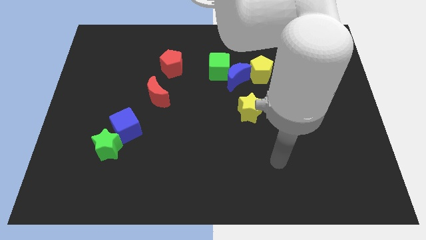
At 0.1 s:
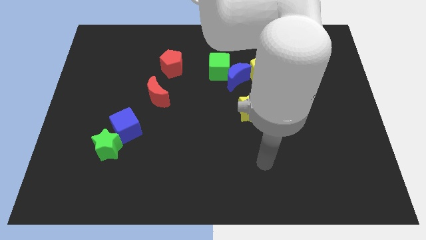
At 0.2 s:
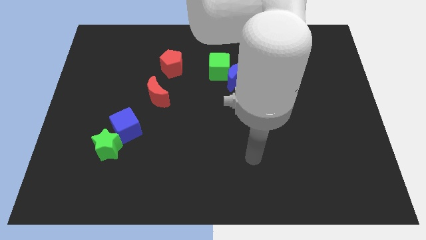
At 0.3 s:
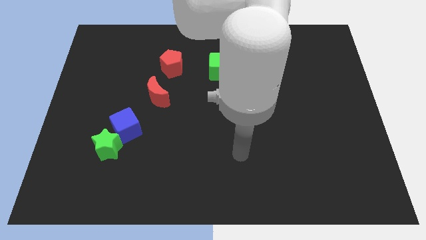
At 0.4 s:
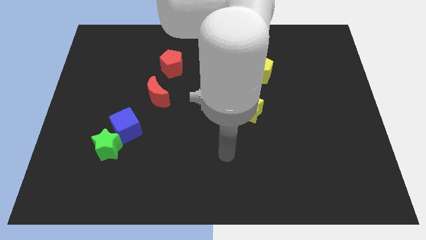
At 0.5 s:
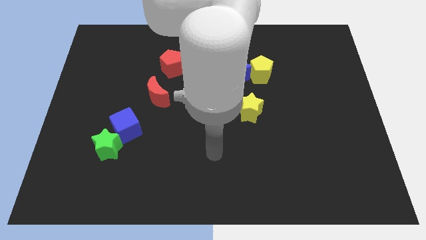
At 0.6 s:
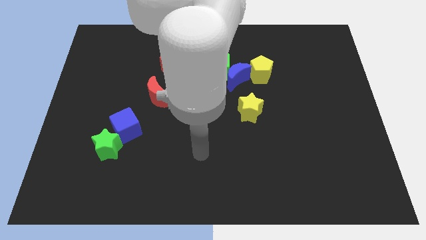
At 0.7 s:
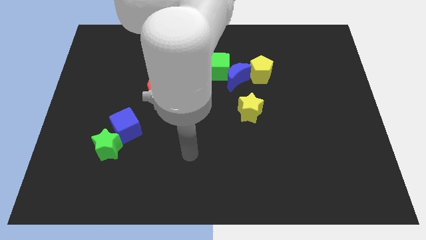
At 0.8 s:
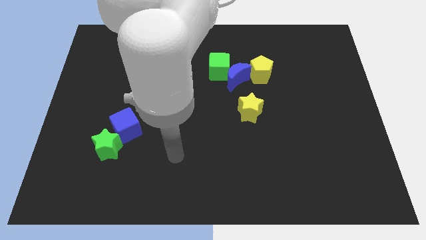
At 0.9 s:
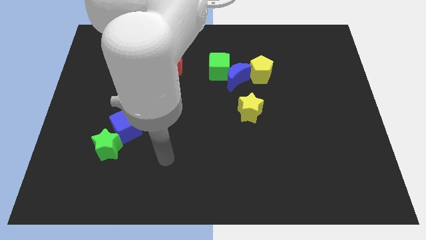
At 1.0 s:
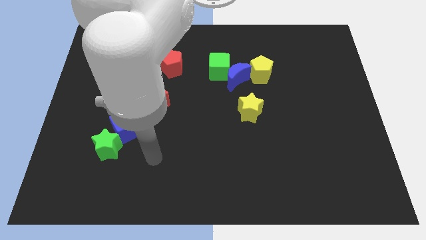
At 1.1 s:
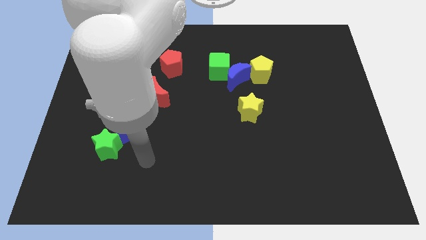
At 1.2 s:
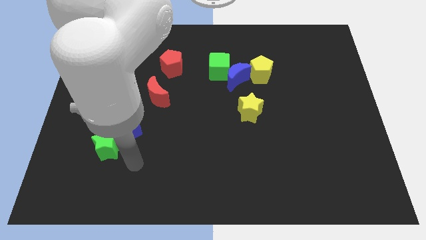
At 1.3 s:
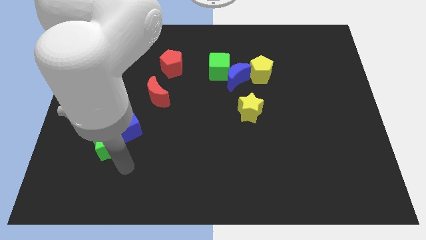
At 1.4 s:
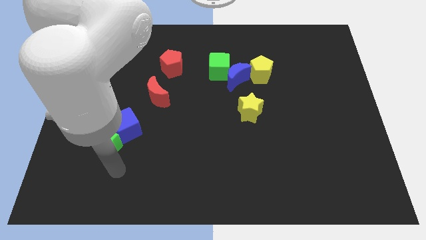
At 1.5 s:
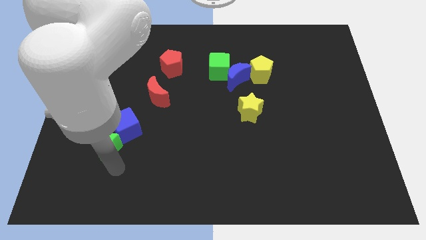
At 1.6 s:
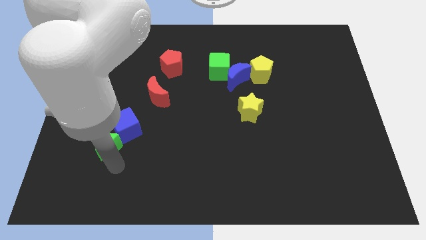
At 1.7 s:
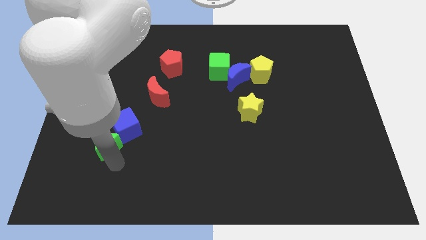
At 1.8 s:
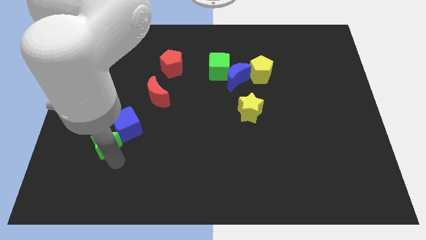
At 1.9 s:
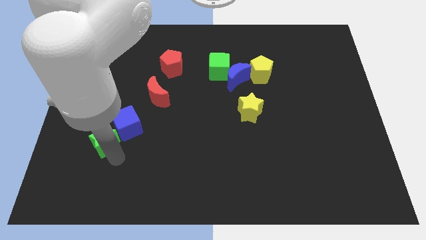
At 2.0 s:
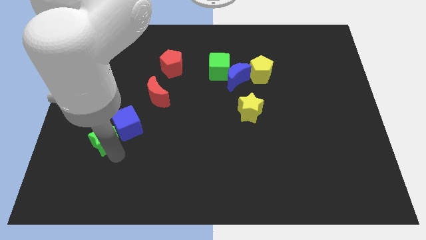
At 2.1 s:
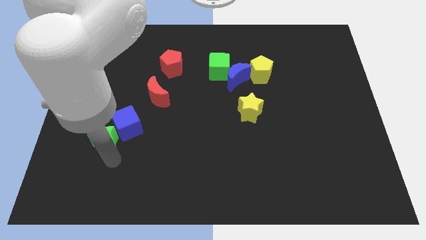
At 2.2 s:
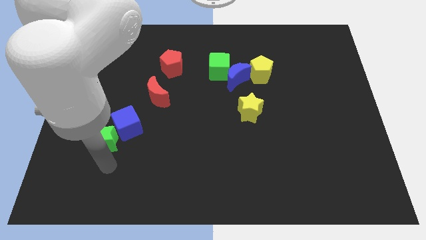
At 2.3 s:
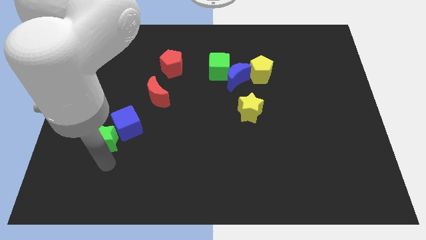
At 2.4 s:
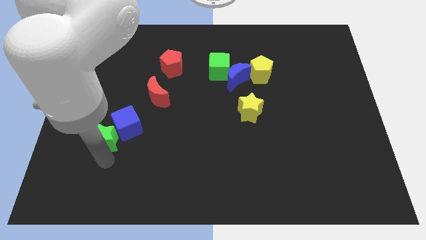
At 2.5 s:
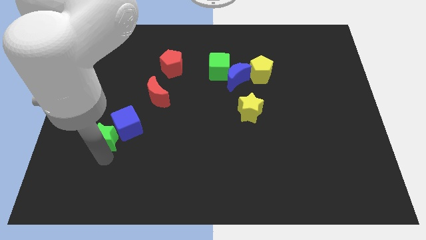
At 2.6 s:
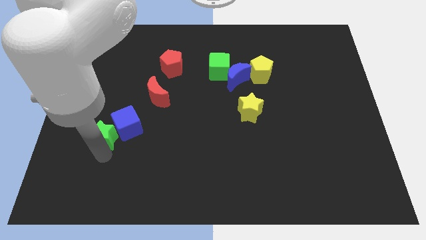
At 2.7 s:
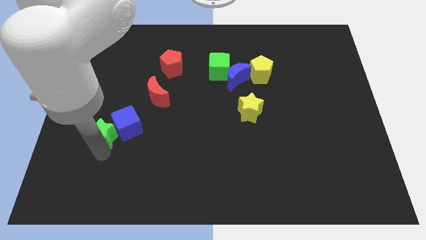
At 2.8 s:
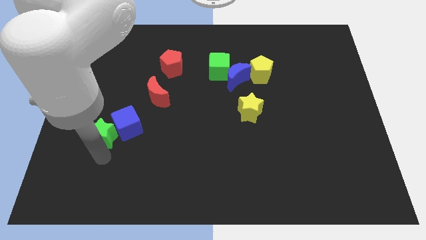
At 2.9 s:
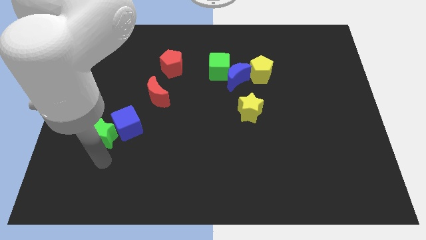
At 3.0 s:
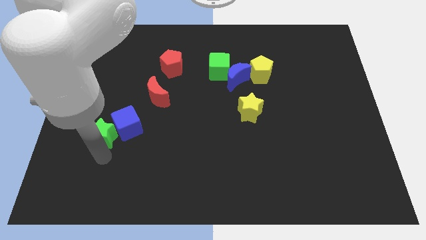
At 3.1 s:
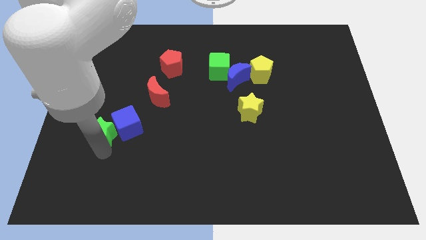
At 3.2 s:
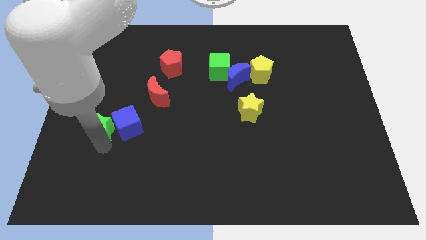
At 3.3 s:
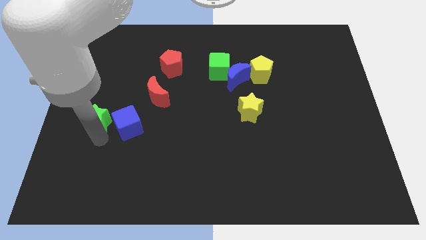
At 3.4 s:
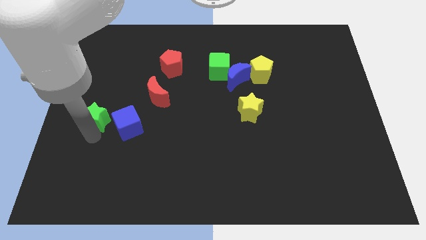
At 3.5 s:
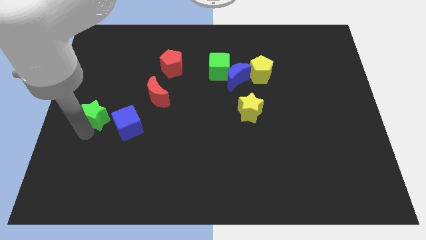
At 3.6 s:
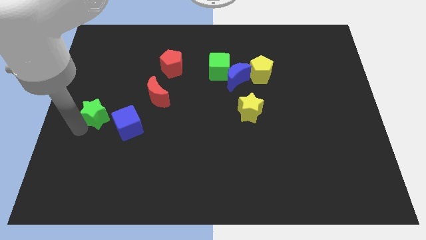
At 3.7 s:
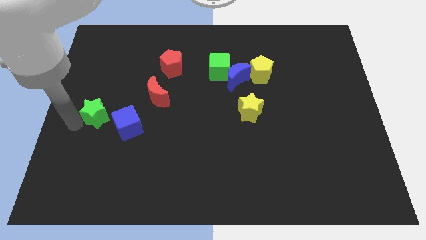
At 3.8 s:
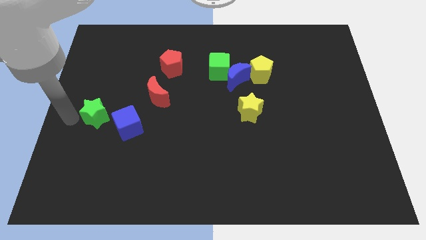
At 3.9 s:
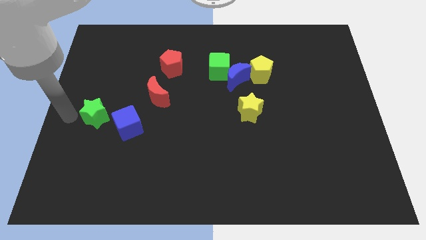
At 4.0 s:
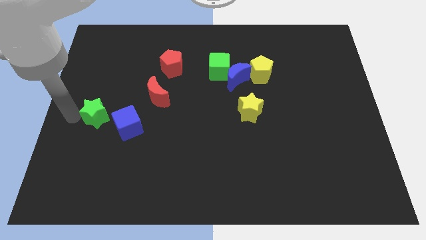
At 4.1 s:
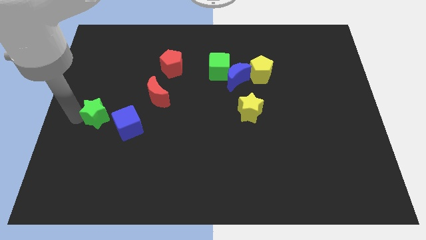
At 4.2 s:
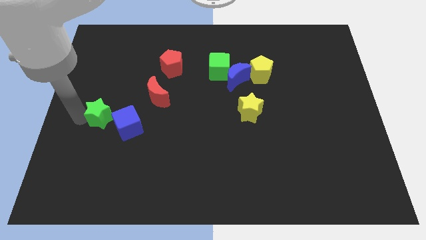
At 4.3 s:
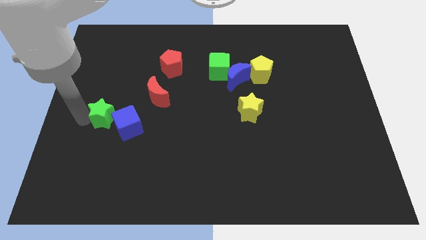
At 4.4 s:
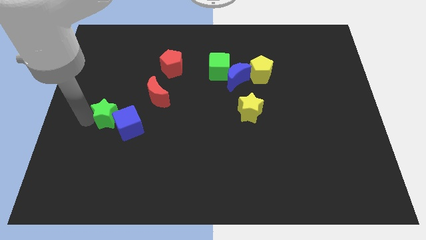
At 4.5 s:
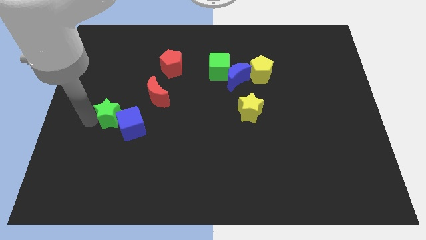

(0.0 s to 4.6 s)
move the green star to the bottom left side of the red moon

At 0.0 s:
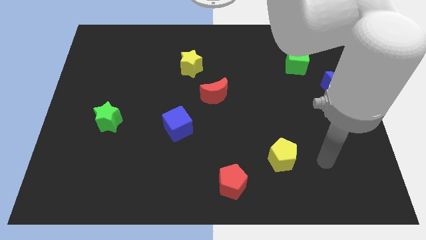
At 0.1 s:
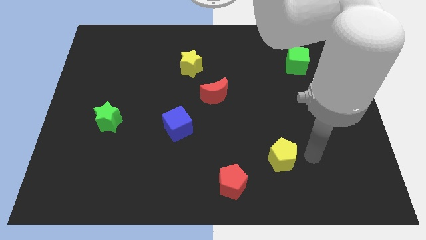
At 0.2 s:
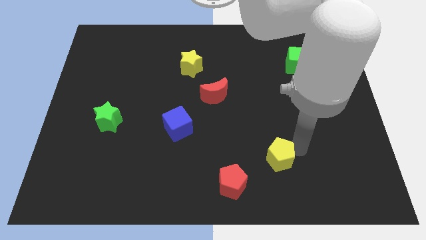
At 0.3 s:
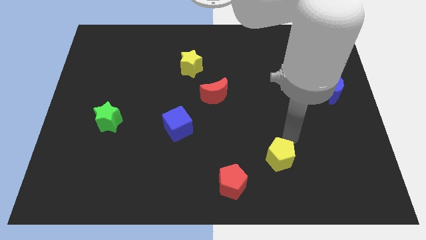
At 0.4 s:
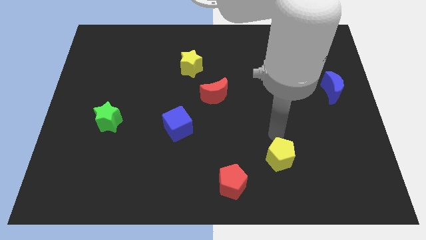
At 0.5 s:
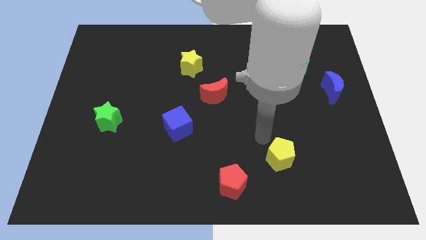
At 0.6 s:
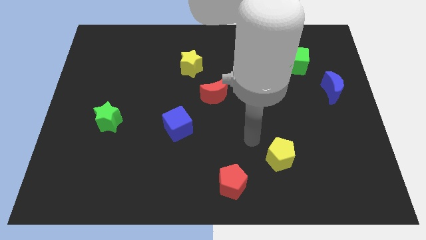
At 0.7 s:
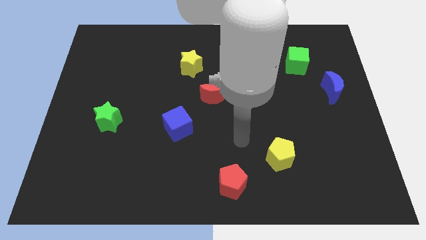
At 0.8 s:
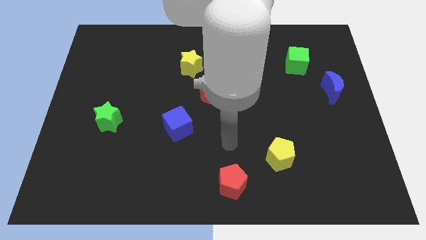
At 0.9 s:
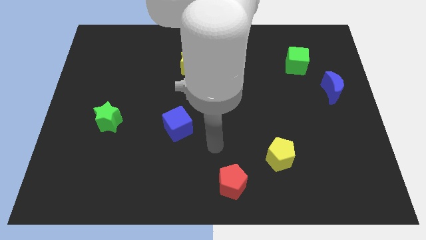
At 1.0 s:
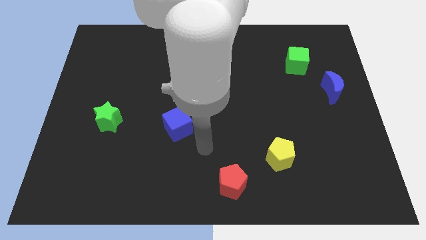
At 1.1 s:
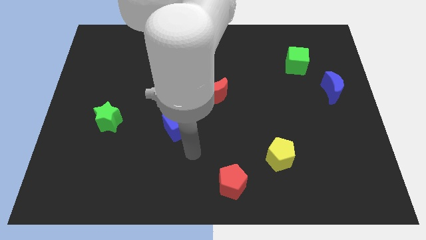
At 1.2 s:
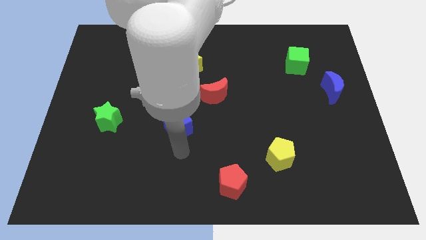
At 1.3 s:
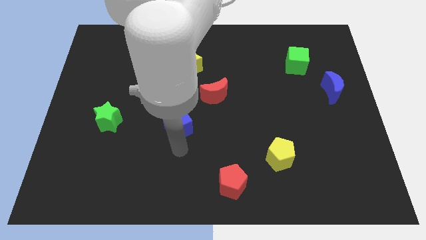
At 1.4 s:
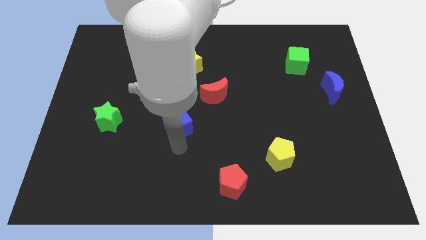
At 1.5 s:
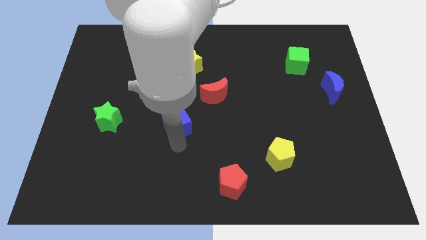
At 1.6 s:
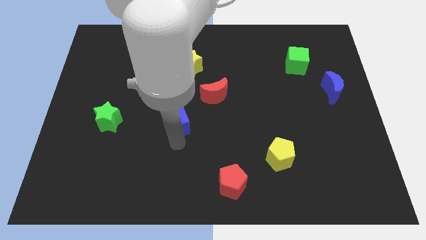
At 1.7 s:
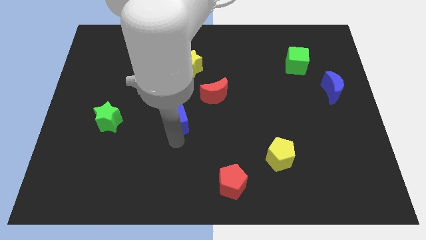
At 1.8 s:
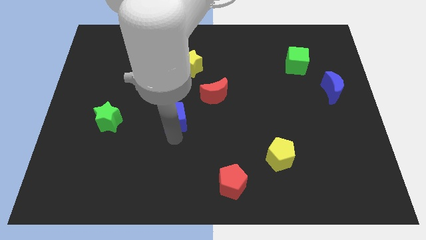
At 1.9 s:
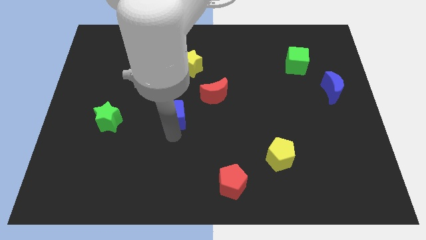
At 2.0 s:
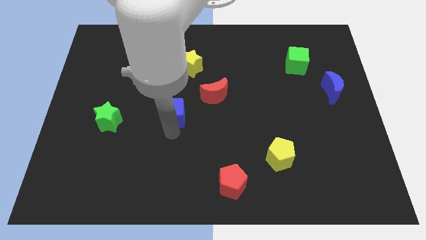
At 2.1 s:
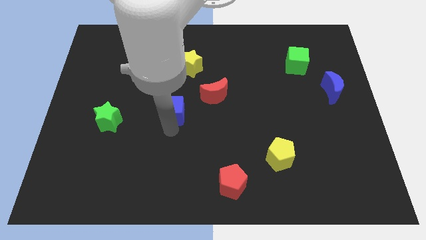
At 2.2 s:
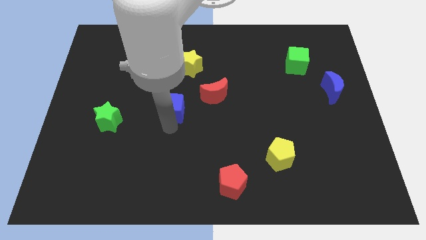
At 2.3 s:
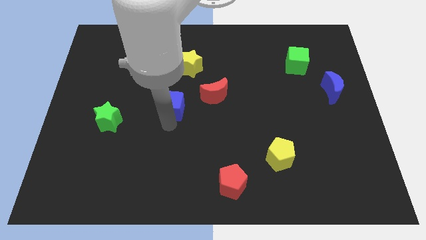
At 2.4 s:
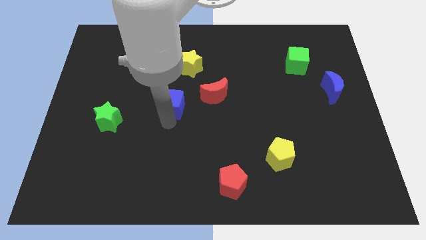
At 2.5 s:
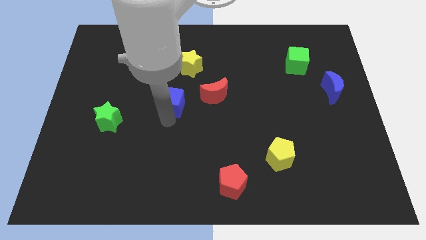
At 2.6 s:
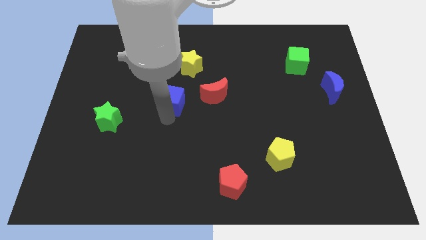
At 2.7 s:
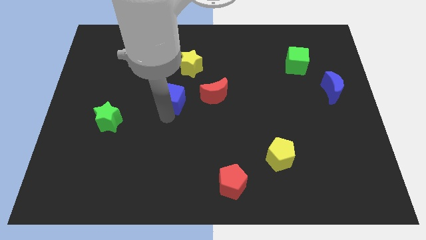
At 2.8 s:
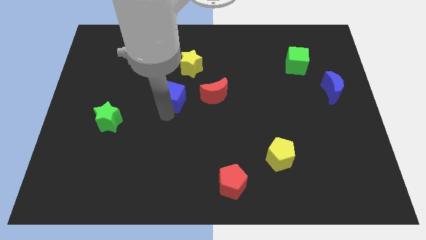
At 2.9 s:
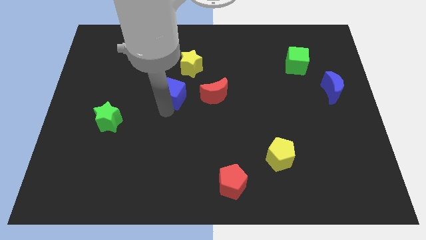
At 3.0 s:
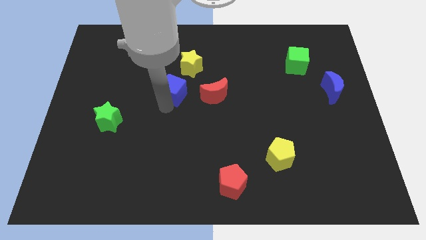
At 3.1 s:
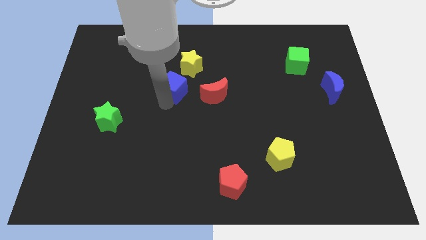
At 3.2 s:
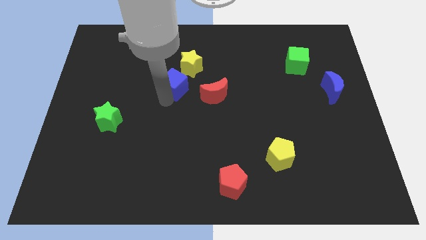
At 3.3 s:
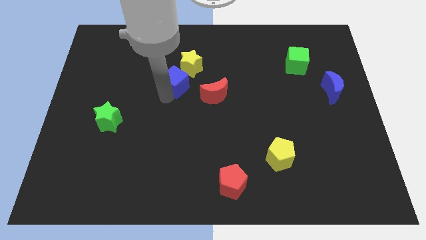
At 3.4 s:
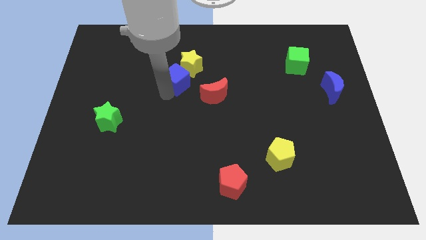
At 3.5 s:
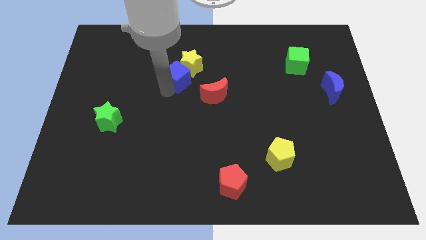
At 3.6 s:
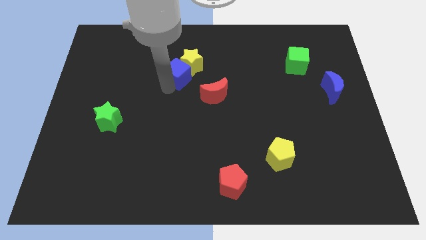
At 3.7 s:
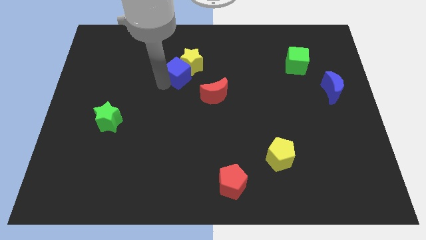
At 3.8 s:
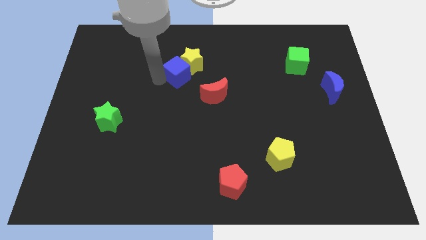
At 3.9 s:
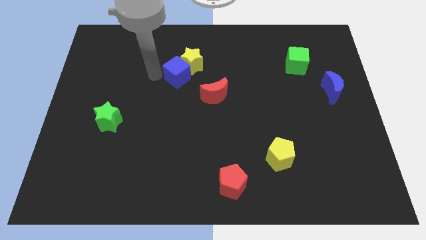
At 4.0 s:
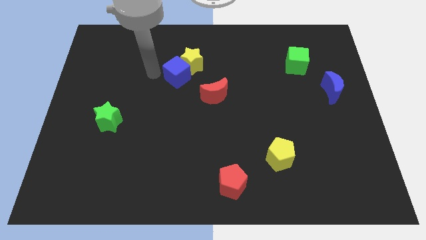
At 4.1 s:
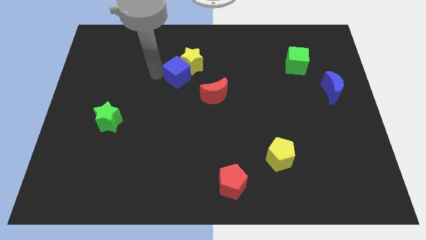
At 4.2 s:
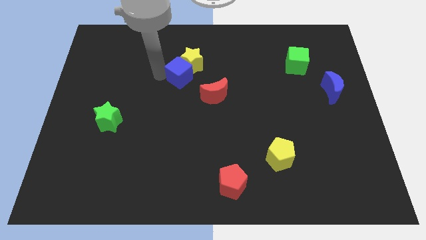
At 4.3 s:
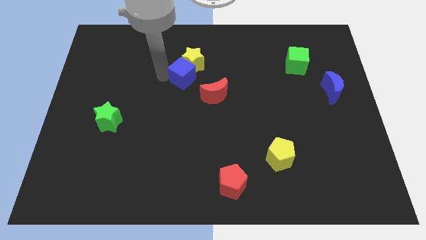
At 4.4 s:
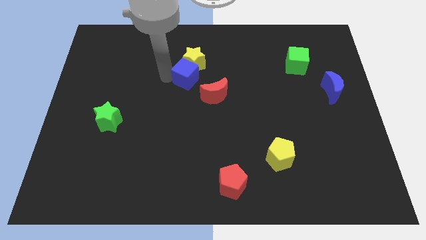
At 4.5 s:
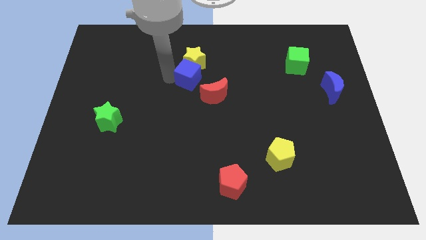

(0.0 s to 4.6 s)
slide the blue cube diagonally down and to the right of the yellow star
